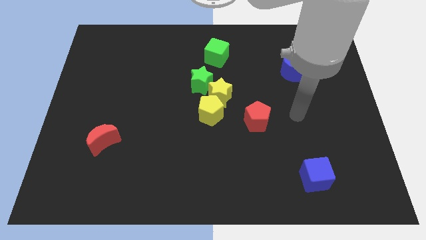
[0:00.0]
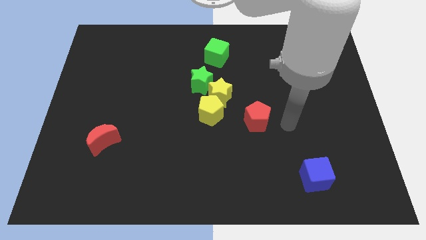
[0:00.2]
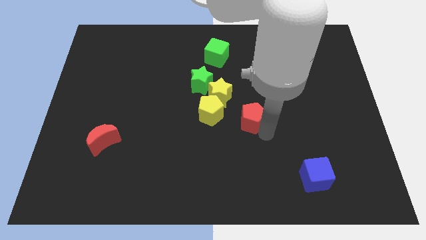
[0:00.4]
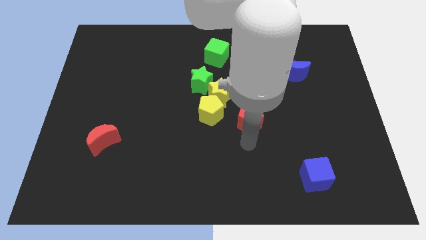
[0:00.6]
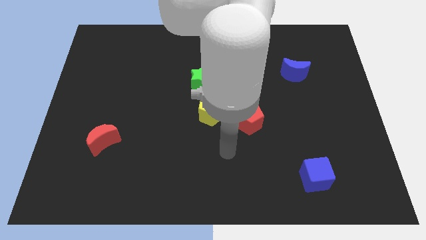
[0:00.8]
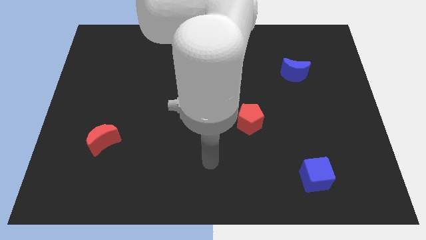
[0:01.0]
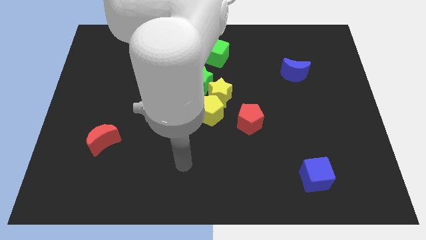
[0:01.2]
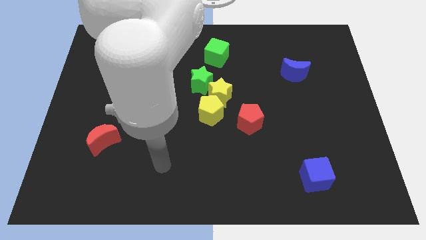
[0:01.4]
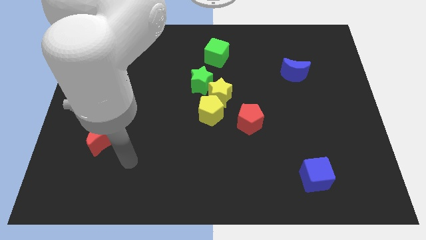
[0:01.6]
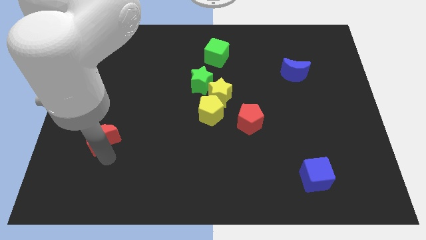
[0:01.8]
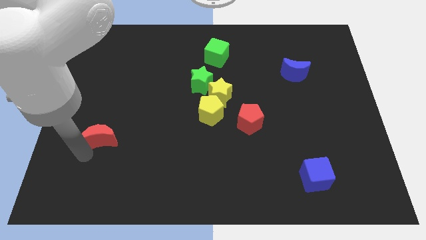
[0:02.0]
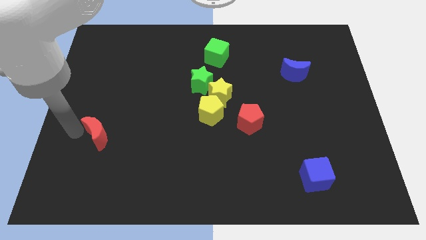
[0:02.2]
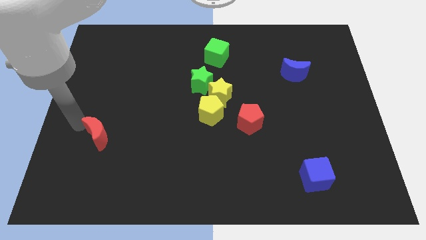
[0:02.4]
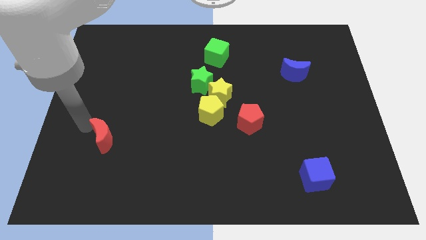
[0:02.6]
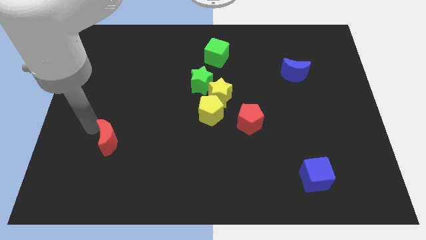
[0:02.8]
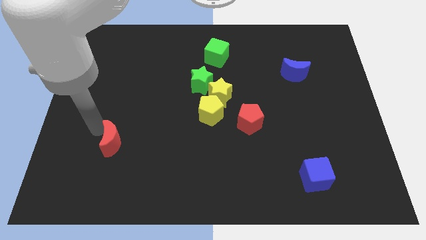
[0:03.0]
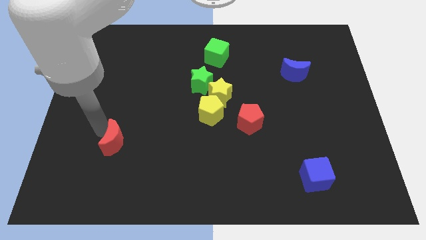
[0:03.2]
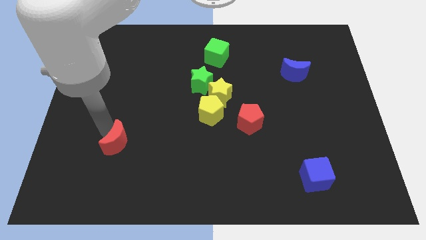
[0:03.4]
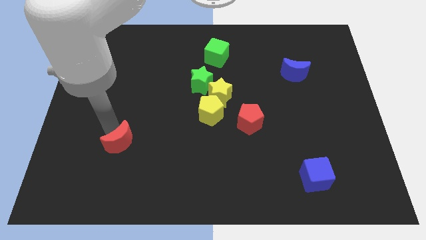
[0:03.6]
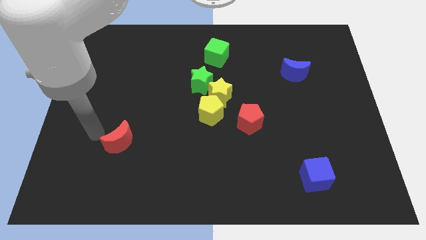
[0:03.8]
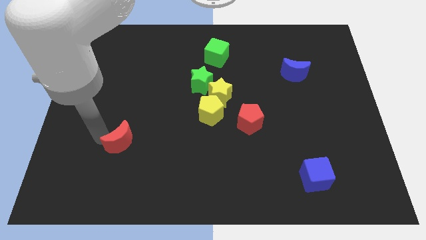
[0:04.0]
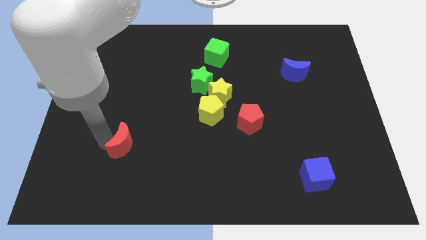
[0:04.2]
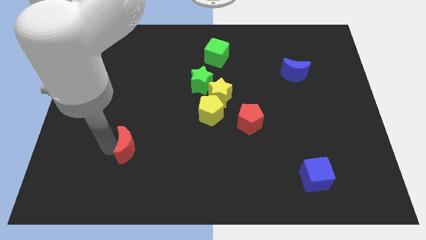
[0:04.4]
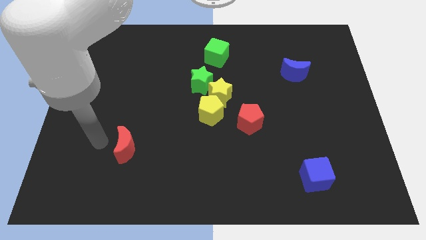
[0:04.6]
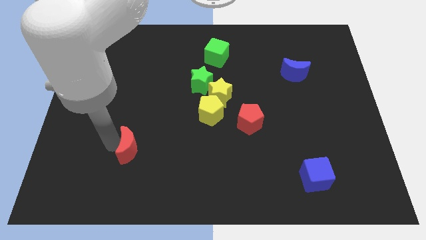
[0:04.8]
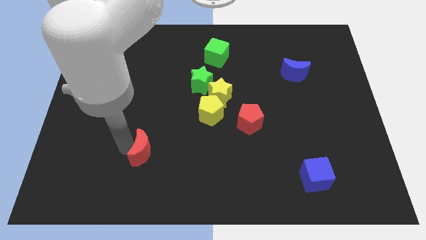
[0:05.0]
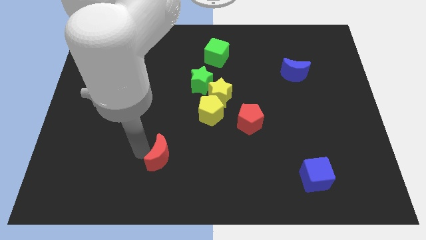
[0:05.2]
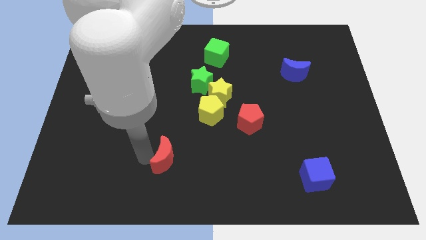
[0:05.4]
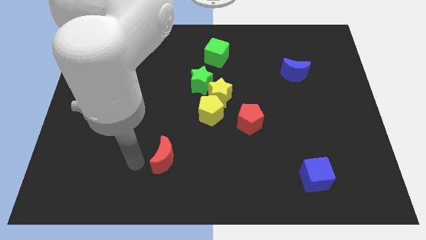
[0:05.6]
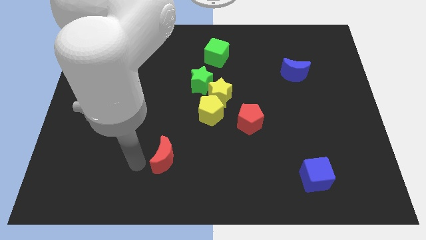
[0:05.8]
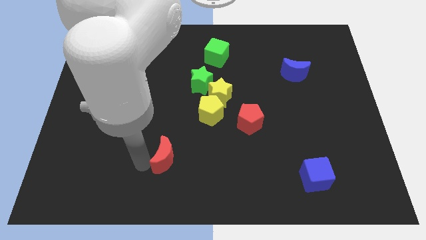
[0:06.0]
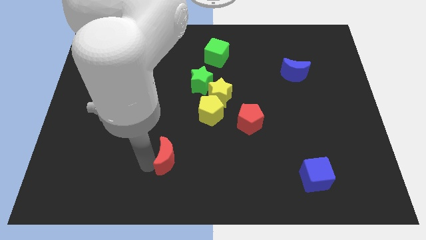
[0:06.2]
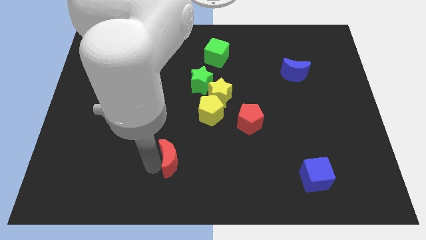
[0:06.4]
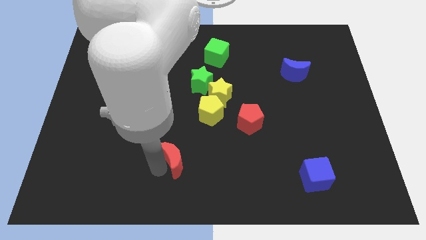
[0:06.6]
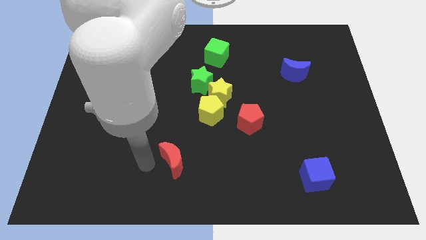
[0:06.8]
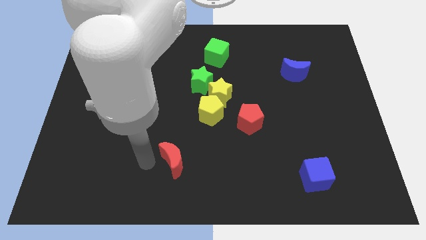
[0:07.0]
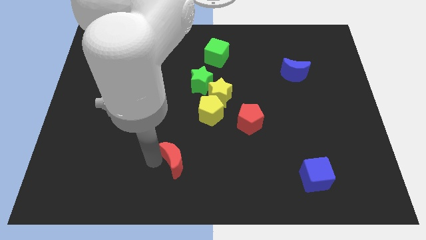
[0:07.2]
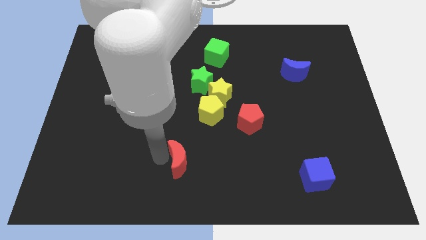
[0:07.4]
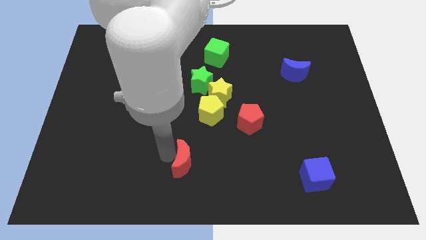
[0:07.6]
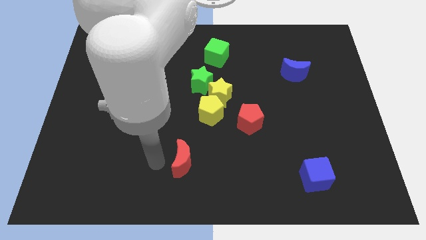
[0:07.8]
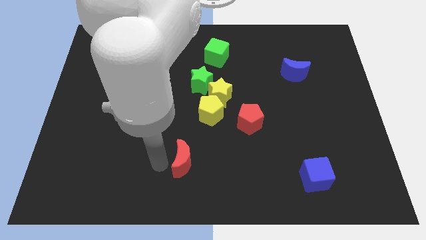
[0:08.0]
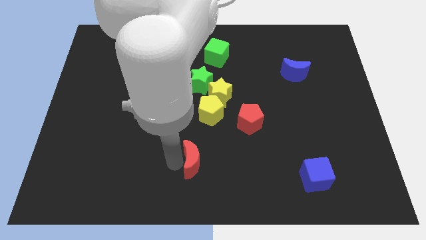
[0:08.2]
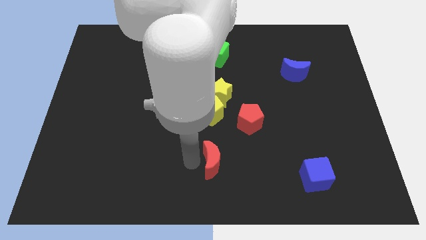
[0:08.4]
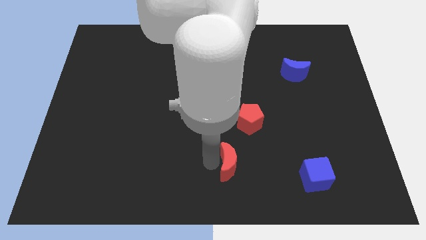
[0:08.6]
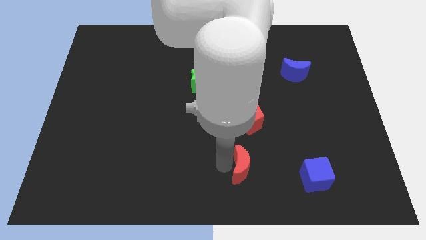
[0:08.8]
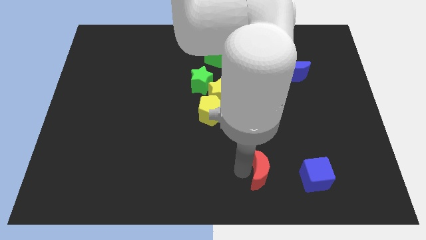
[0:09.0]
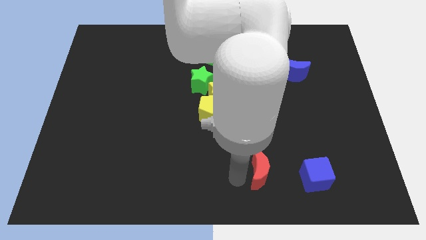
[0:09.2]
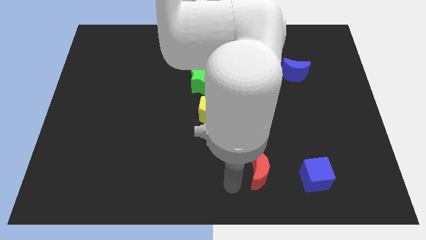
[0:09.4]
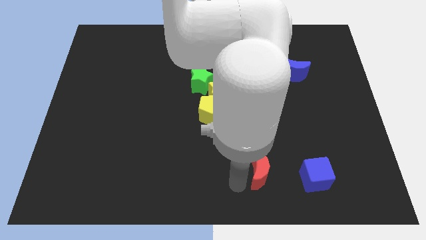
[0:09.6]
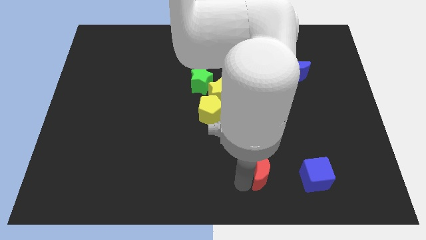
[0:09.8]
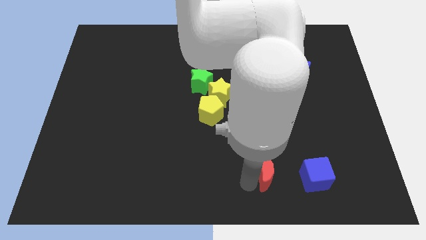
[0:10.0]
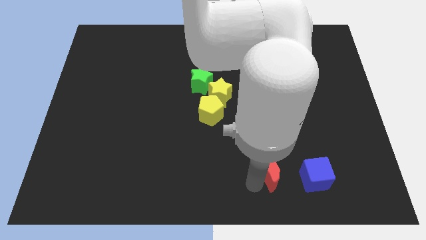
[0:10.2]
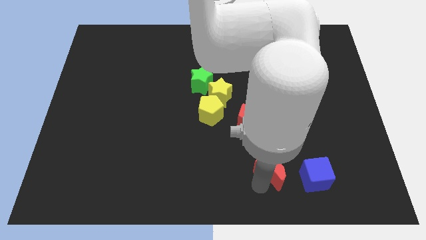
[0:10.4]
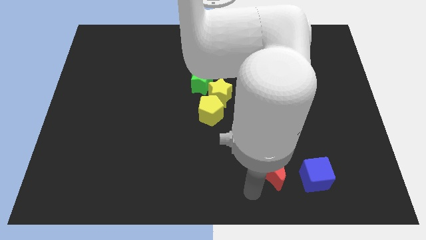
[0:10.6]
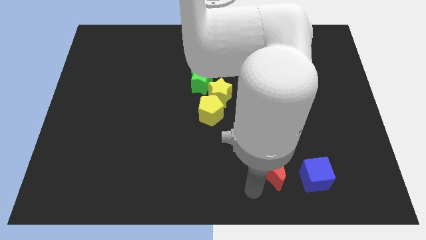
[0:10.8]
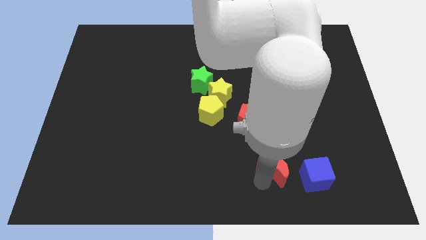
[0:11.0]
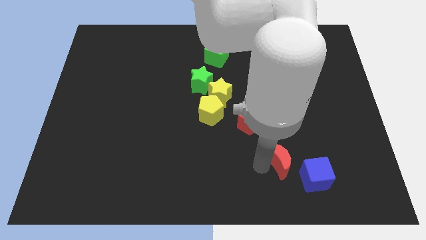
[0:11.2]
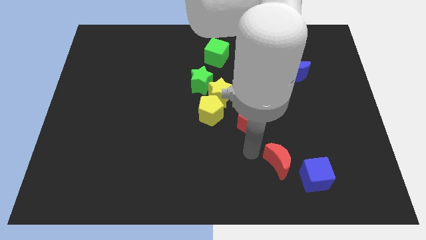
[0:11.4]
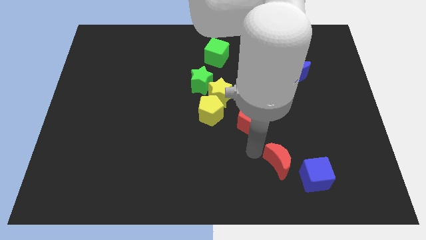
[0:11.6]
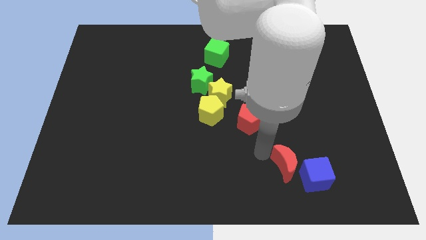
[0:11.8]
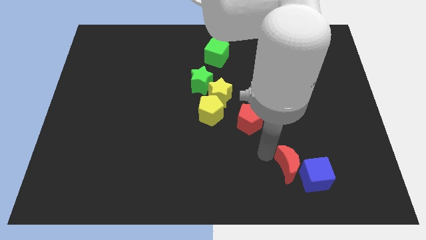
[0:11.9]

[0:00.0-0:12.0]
move the red moon close to the blue cube

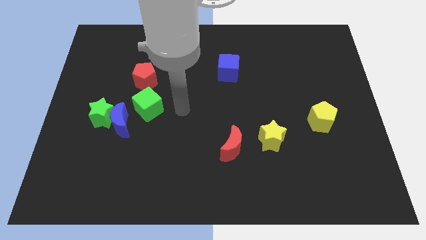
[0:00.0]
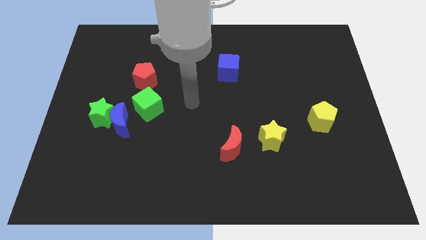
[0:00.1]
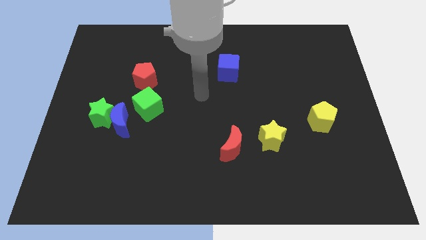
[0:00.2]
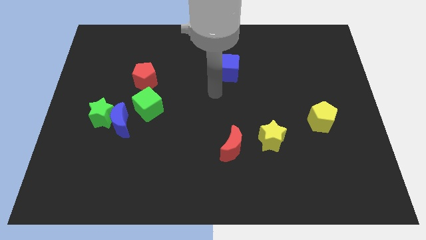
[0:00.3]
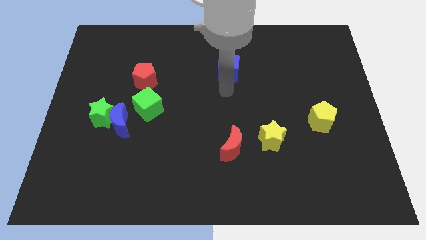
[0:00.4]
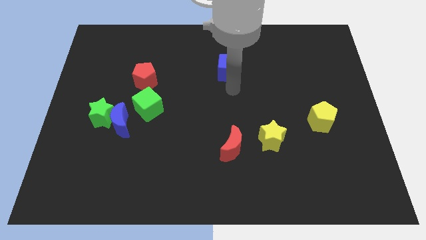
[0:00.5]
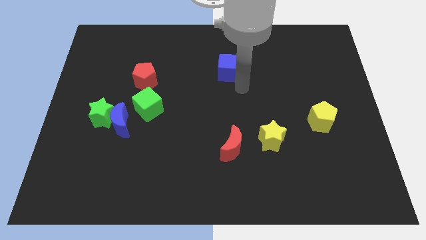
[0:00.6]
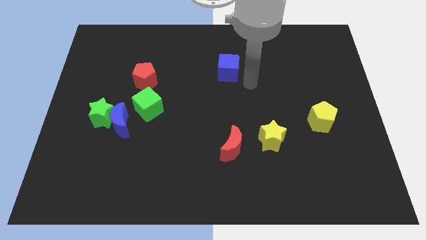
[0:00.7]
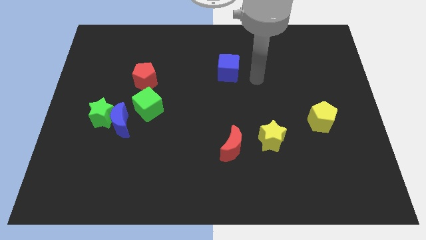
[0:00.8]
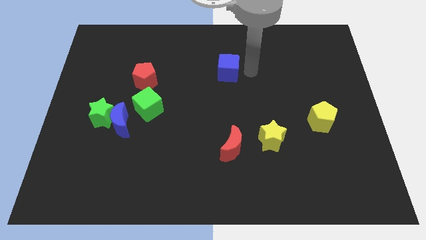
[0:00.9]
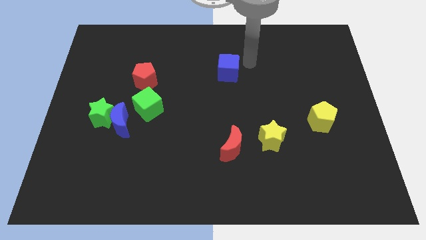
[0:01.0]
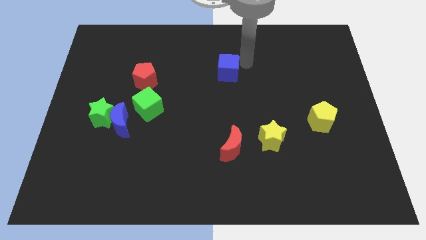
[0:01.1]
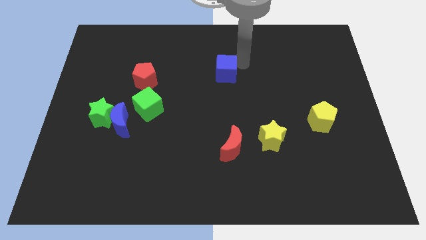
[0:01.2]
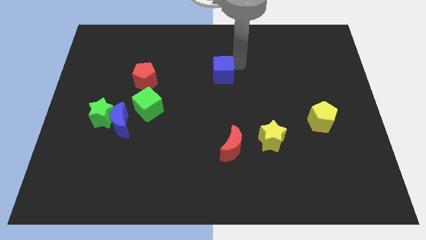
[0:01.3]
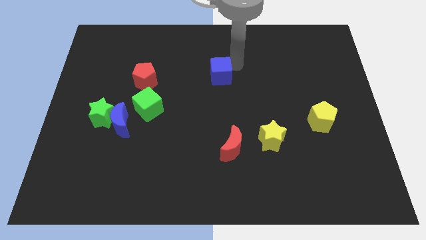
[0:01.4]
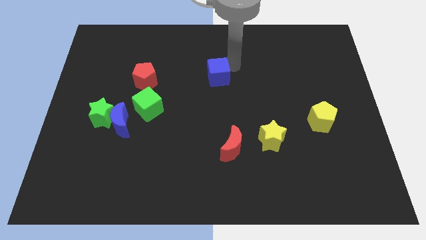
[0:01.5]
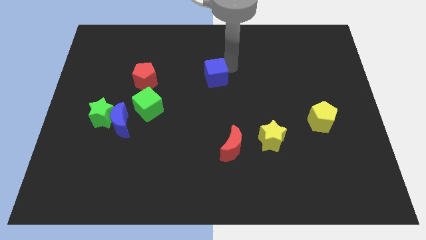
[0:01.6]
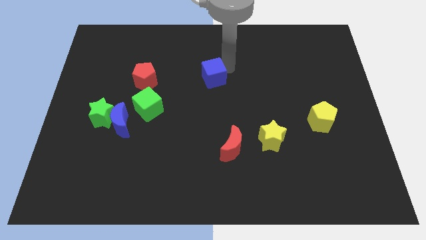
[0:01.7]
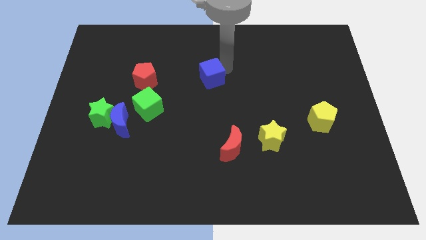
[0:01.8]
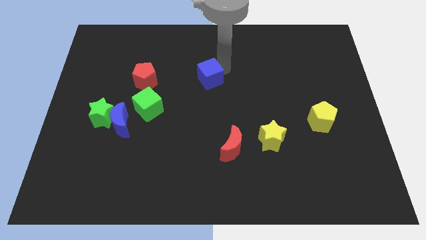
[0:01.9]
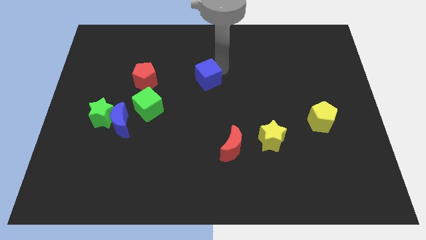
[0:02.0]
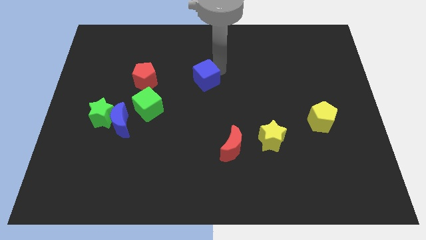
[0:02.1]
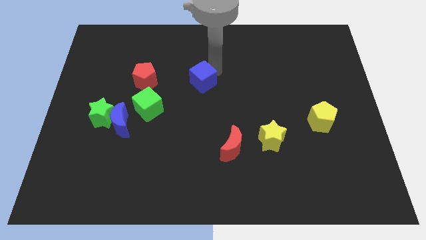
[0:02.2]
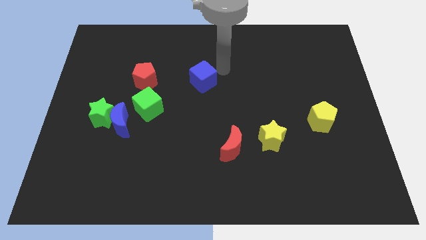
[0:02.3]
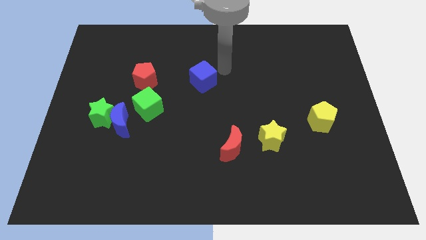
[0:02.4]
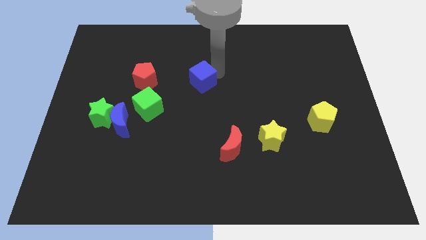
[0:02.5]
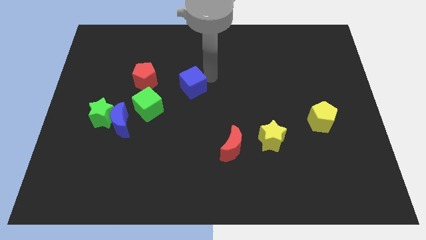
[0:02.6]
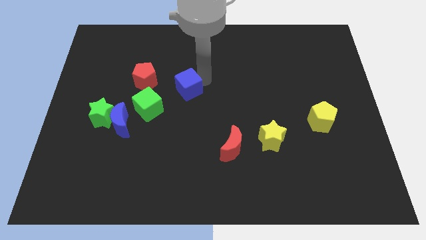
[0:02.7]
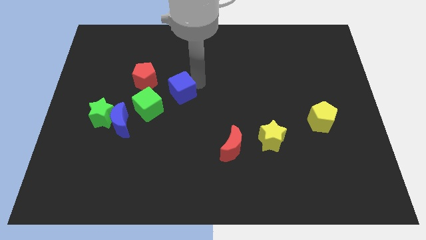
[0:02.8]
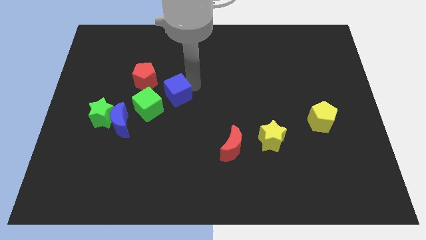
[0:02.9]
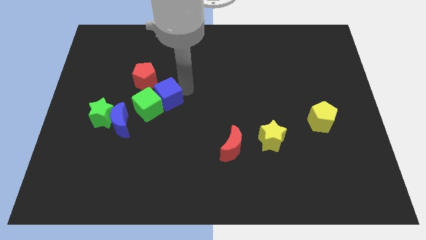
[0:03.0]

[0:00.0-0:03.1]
push the blue cube towards the green cube
